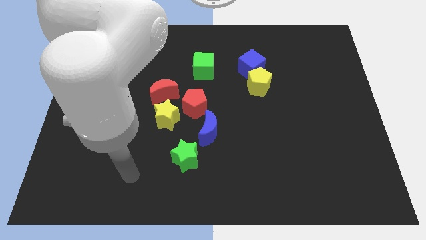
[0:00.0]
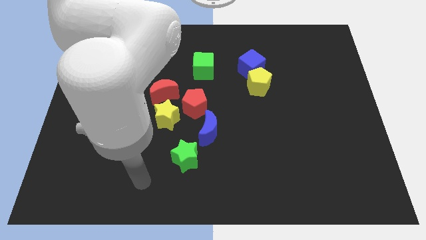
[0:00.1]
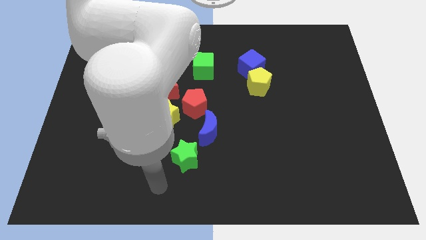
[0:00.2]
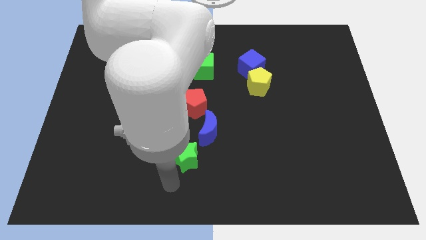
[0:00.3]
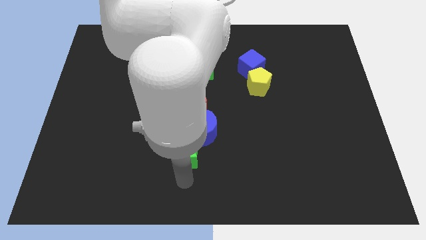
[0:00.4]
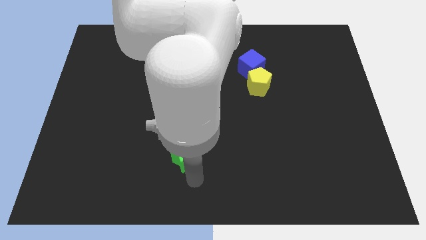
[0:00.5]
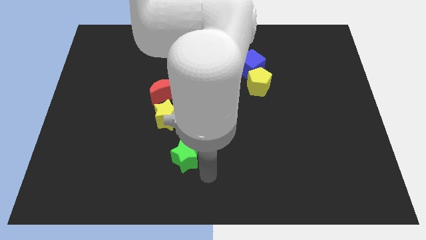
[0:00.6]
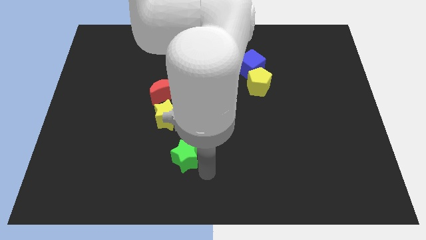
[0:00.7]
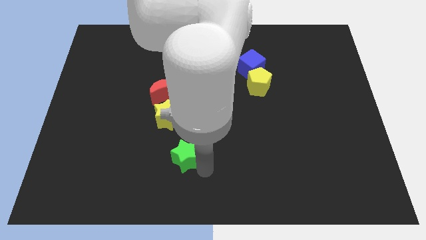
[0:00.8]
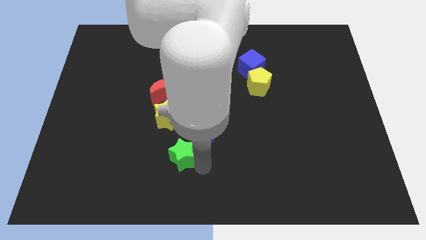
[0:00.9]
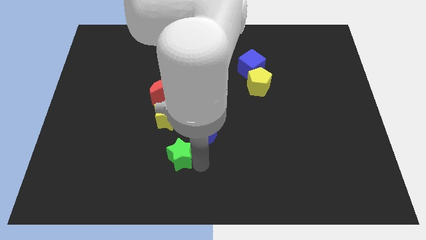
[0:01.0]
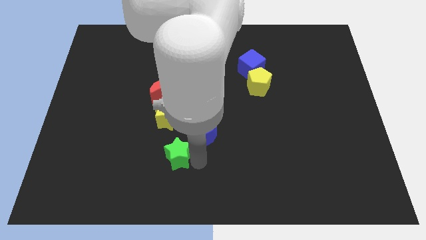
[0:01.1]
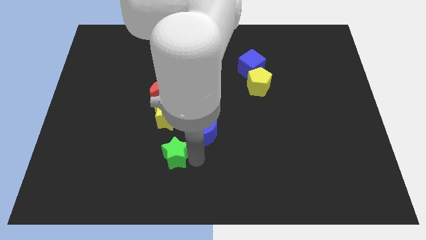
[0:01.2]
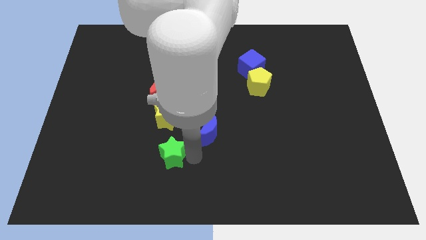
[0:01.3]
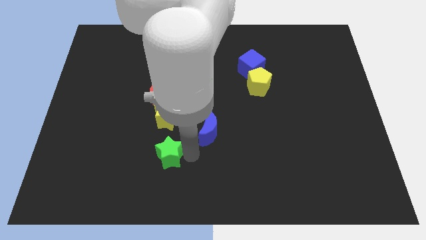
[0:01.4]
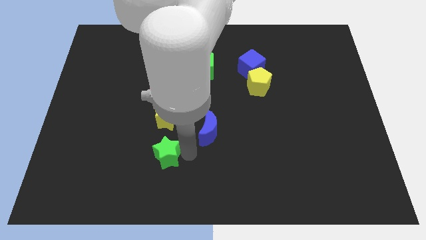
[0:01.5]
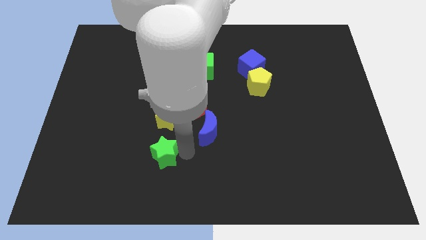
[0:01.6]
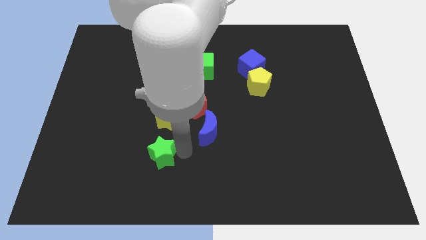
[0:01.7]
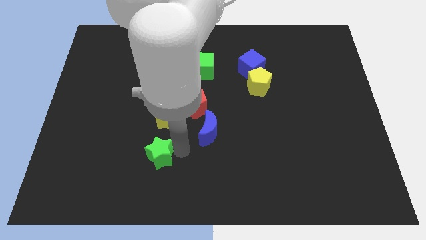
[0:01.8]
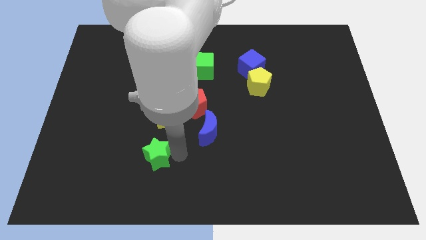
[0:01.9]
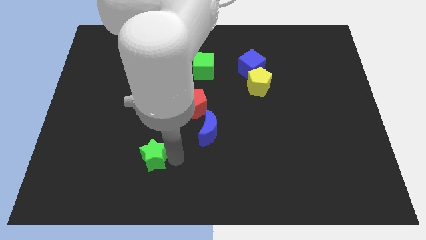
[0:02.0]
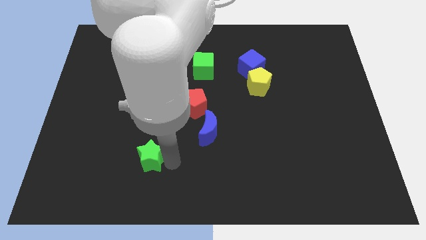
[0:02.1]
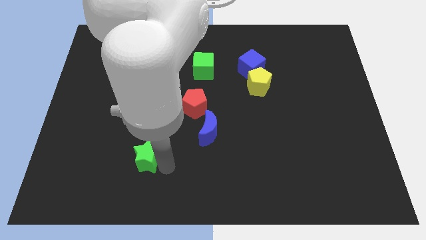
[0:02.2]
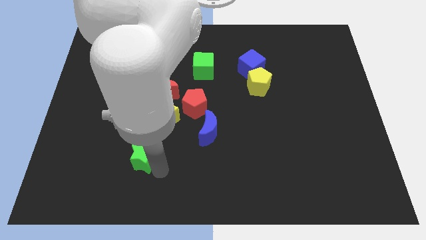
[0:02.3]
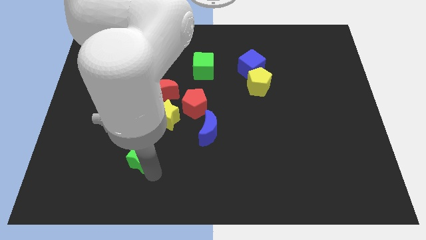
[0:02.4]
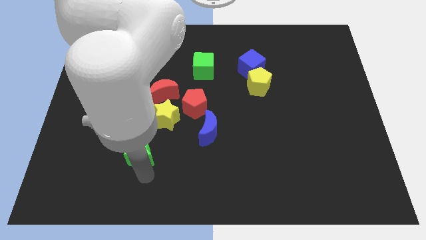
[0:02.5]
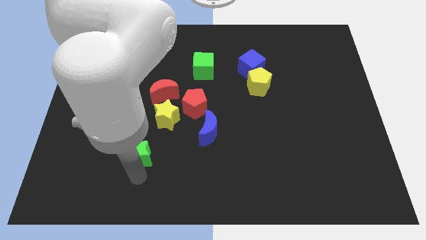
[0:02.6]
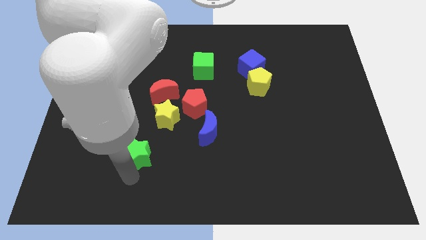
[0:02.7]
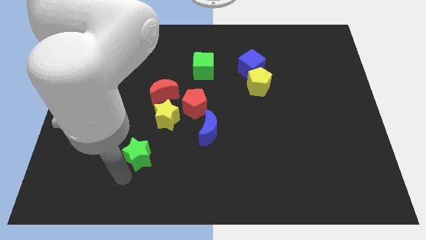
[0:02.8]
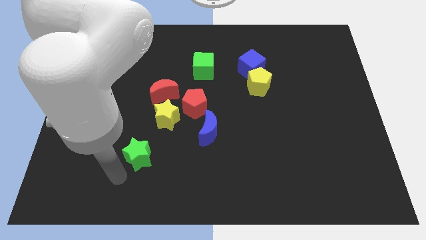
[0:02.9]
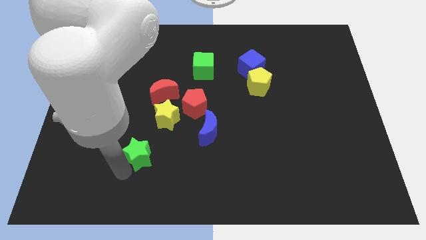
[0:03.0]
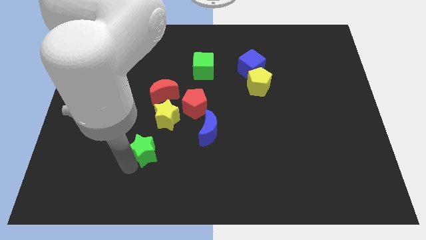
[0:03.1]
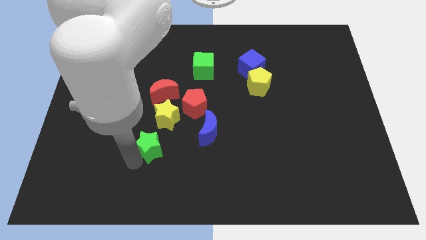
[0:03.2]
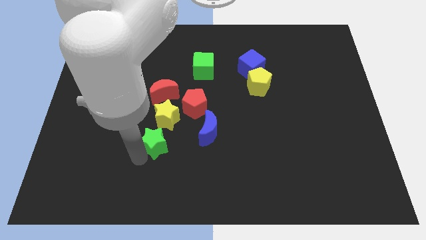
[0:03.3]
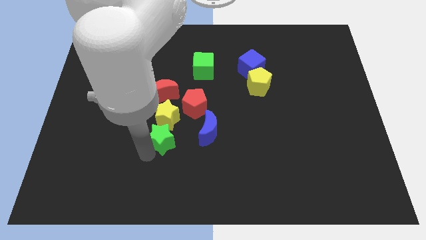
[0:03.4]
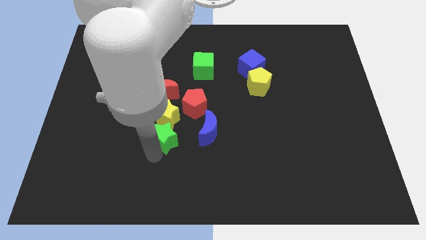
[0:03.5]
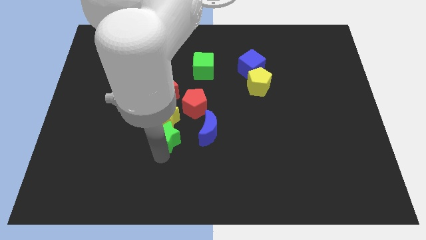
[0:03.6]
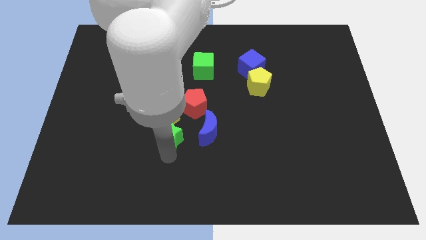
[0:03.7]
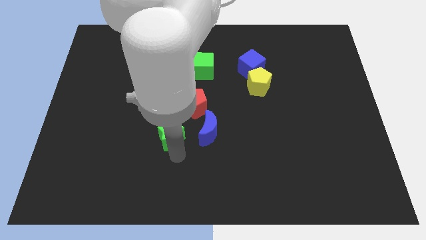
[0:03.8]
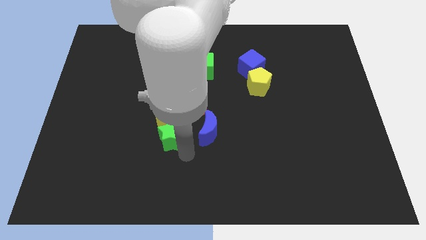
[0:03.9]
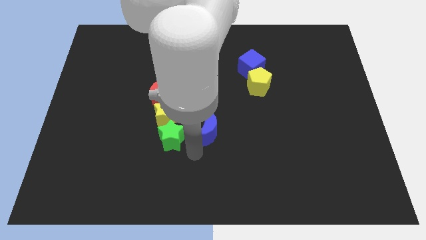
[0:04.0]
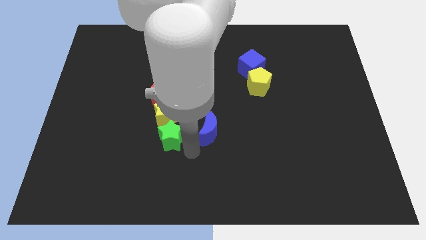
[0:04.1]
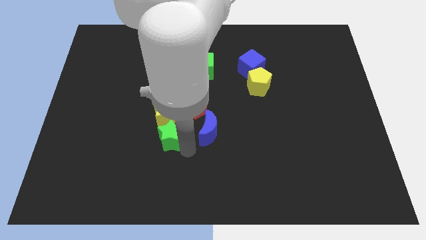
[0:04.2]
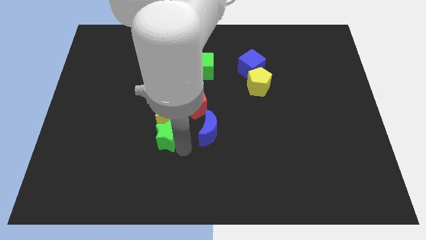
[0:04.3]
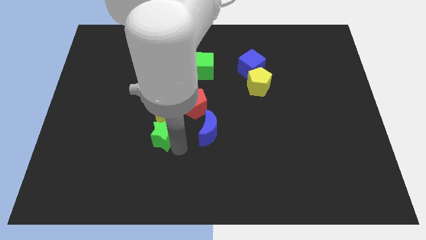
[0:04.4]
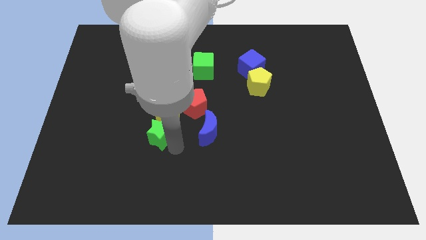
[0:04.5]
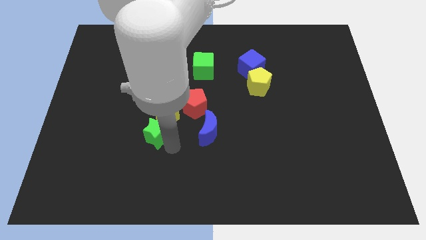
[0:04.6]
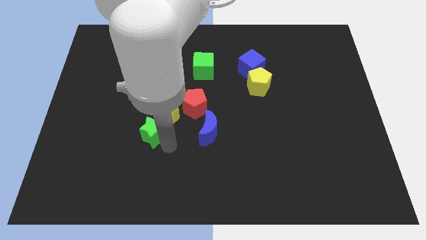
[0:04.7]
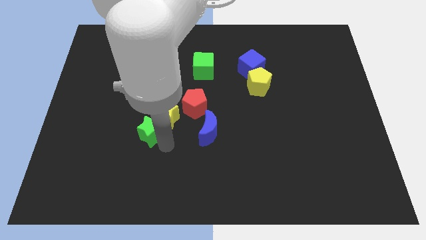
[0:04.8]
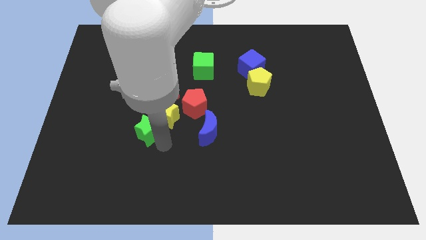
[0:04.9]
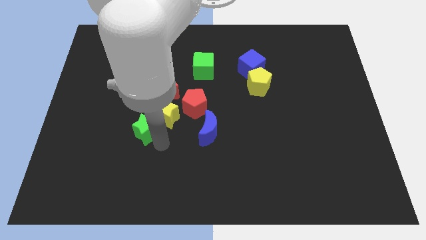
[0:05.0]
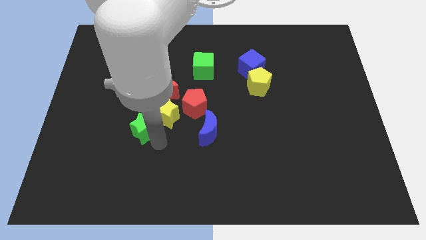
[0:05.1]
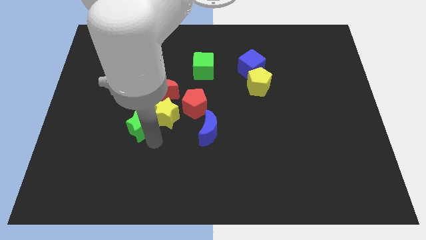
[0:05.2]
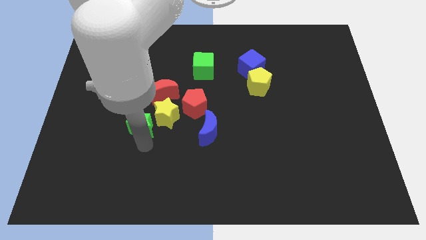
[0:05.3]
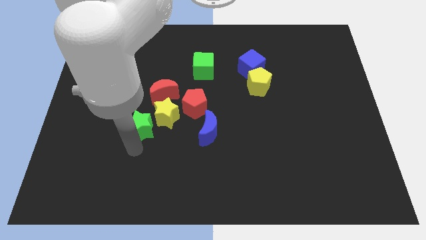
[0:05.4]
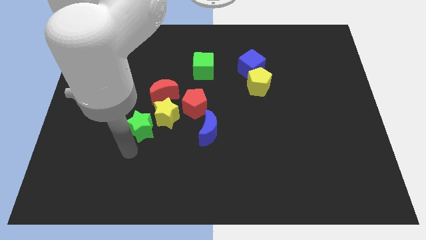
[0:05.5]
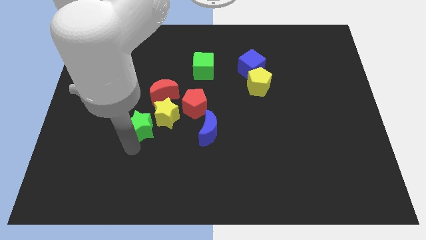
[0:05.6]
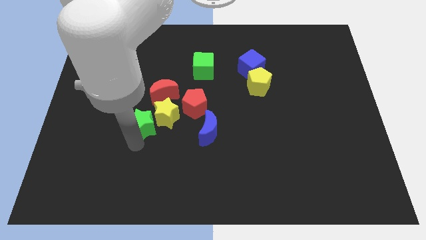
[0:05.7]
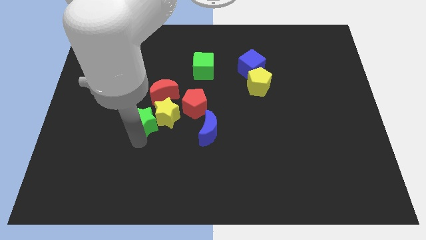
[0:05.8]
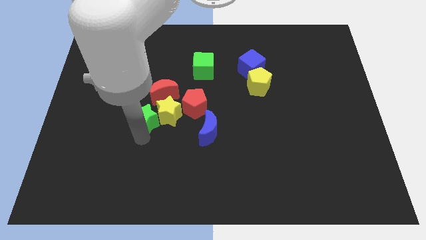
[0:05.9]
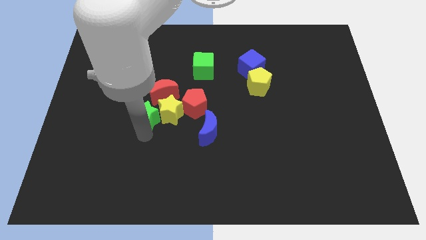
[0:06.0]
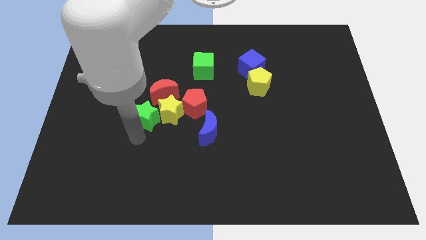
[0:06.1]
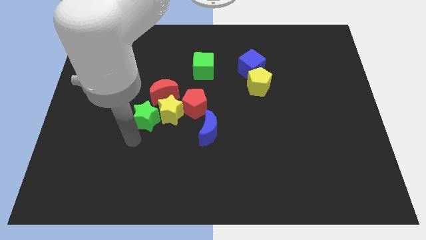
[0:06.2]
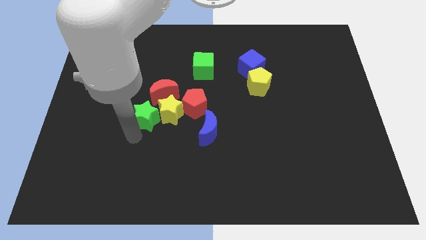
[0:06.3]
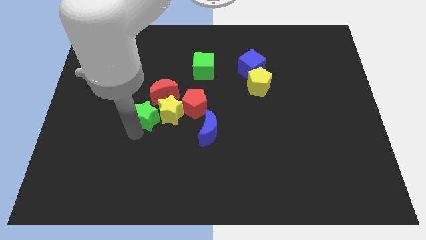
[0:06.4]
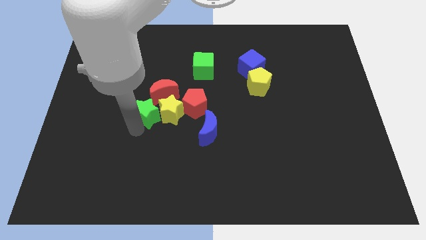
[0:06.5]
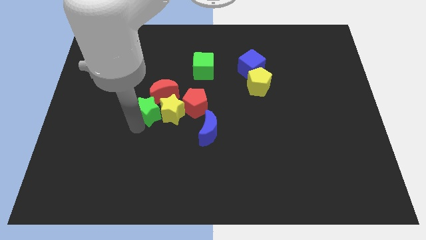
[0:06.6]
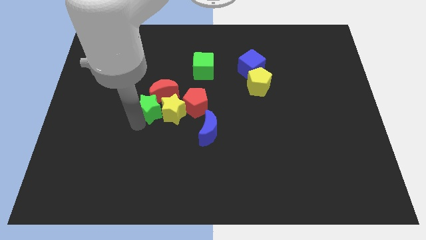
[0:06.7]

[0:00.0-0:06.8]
slide the green star towards the red moon

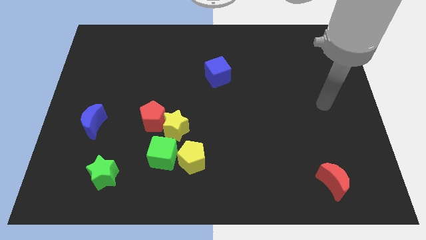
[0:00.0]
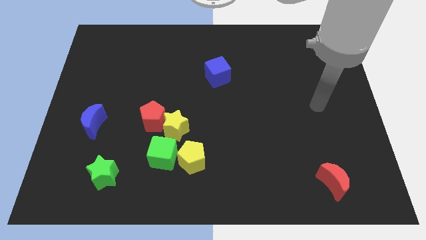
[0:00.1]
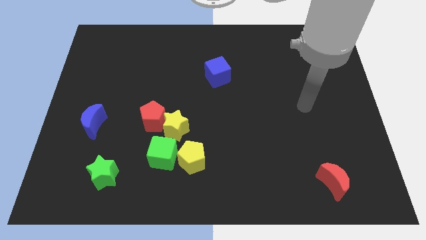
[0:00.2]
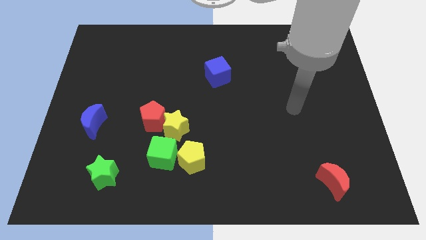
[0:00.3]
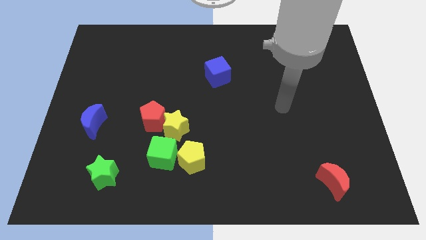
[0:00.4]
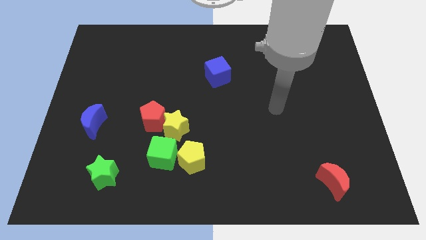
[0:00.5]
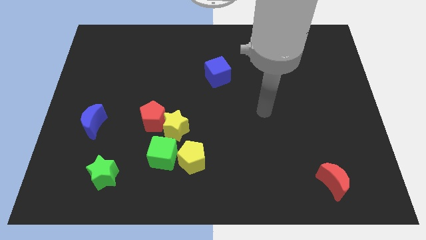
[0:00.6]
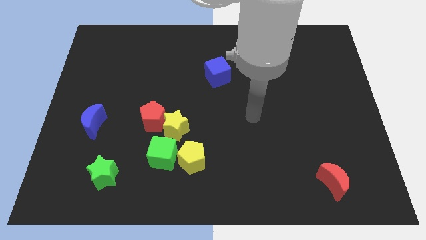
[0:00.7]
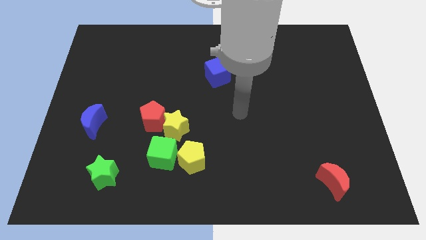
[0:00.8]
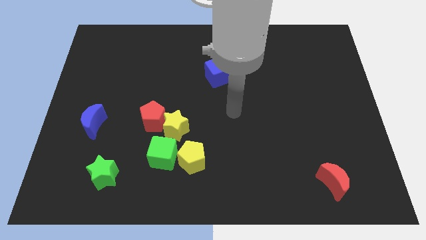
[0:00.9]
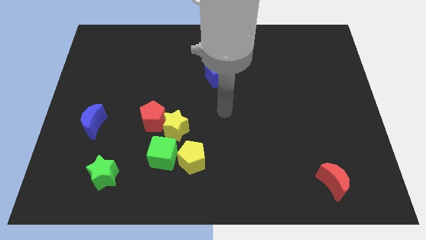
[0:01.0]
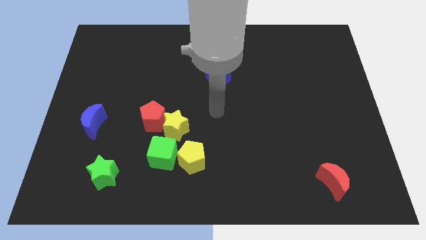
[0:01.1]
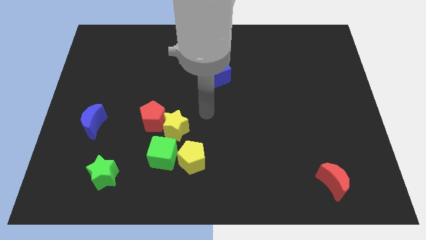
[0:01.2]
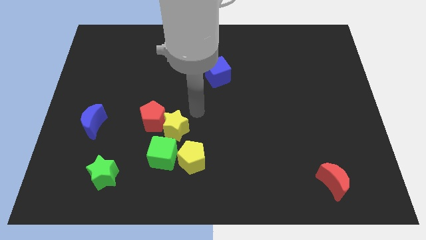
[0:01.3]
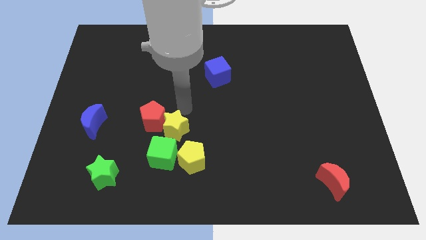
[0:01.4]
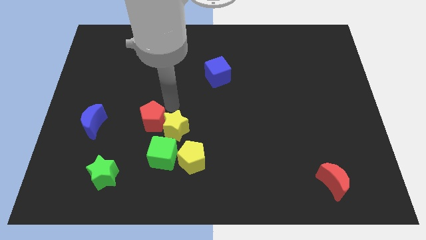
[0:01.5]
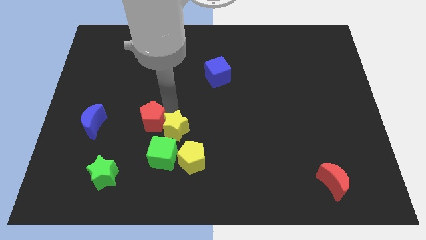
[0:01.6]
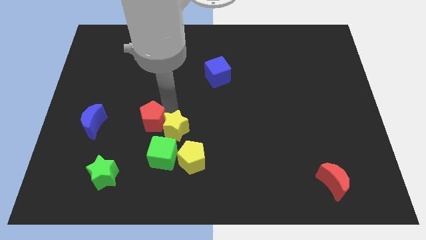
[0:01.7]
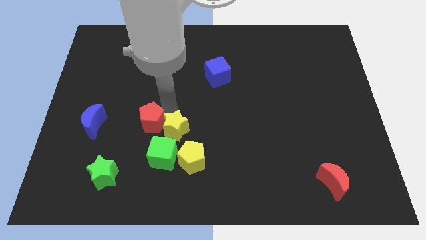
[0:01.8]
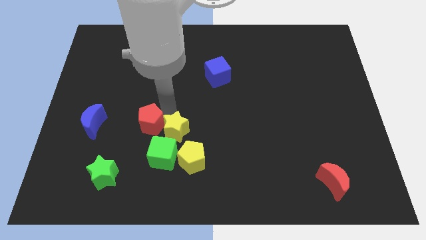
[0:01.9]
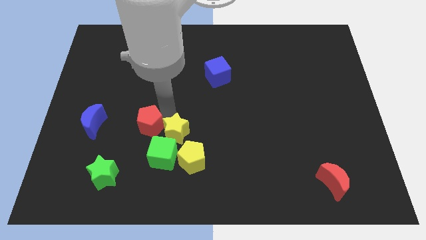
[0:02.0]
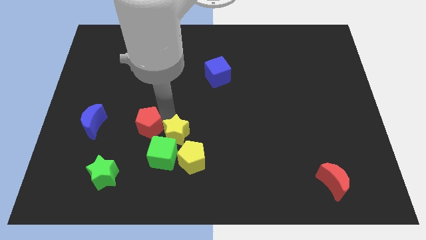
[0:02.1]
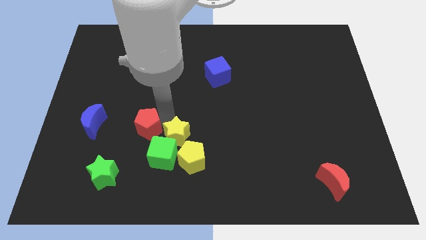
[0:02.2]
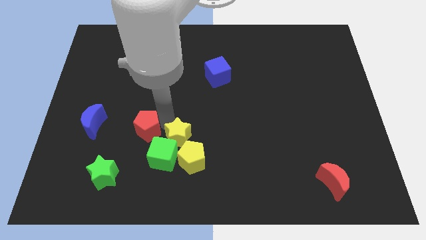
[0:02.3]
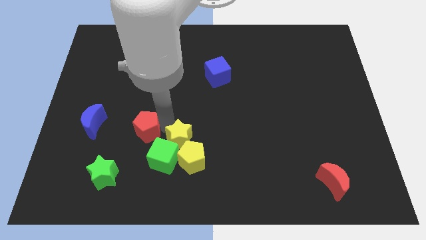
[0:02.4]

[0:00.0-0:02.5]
push the yellow star towards the yellow pentagon
